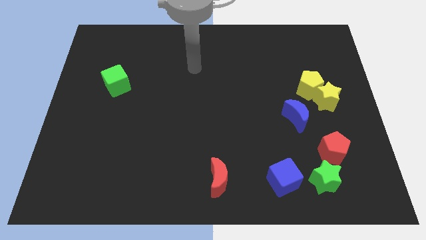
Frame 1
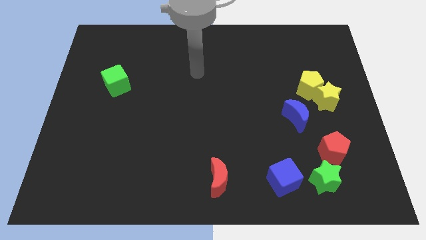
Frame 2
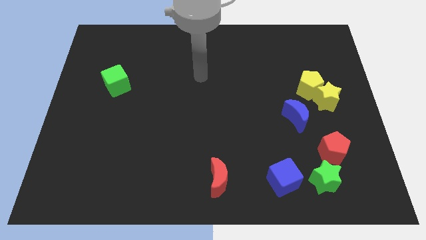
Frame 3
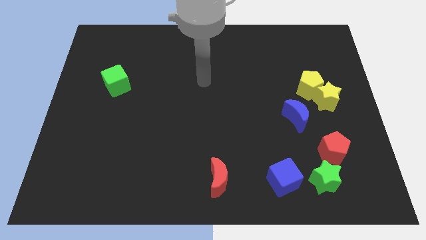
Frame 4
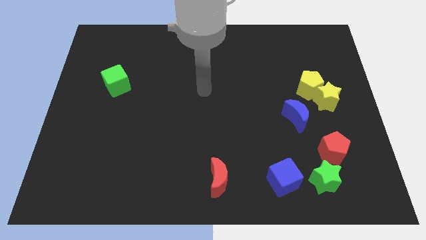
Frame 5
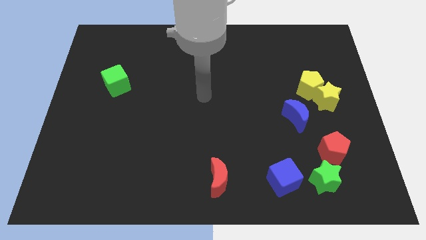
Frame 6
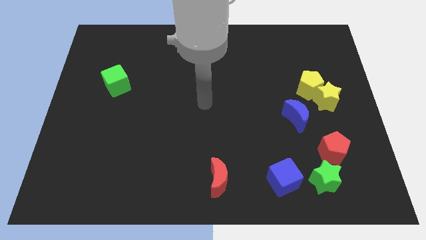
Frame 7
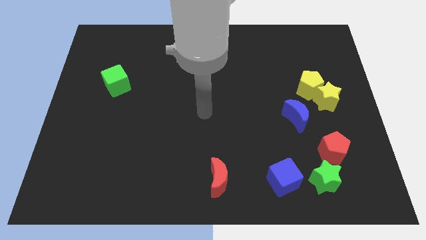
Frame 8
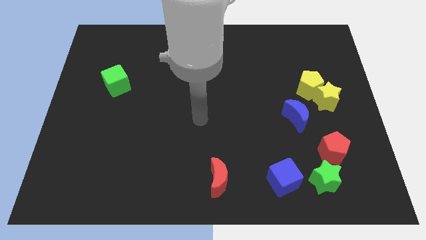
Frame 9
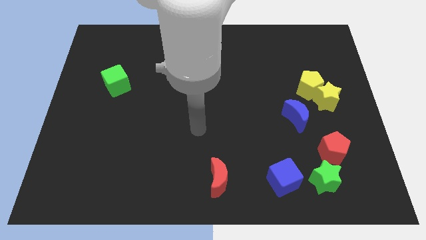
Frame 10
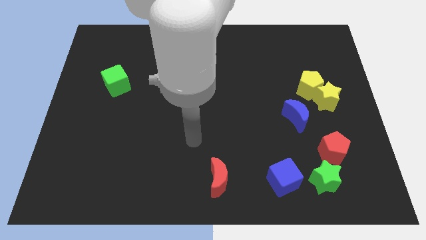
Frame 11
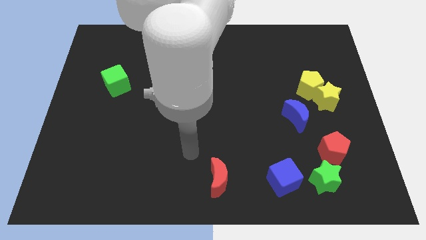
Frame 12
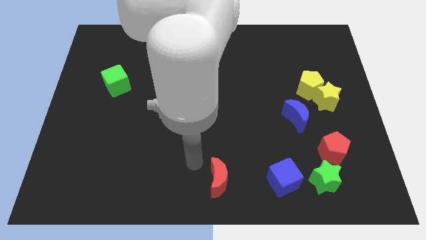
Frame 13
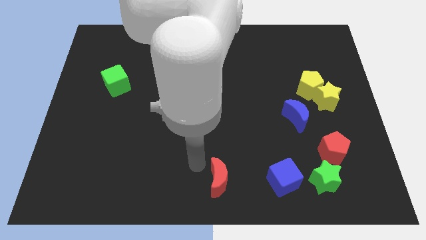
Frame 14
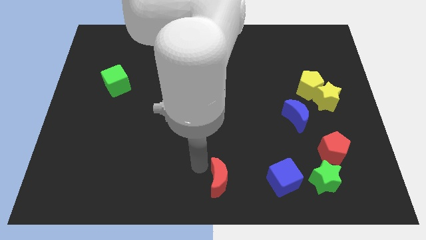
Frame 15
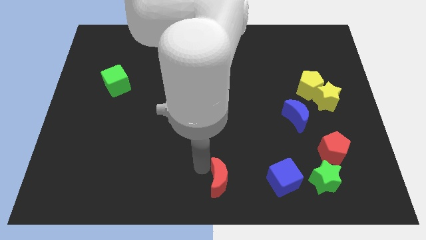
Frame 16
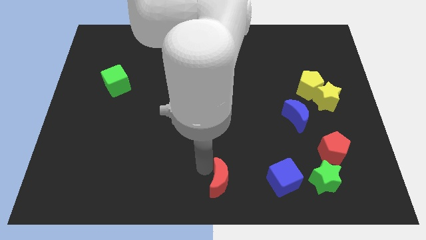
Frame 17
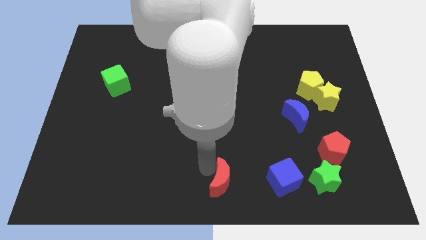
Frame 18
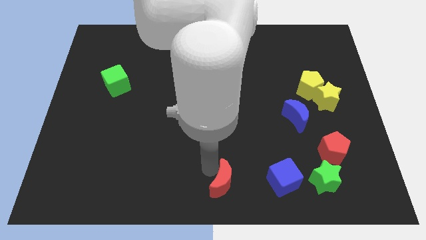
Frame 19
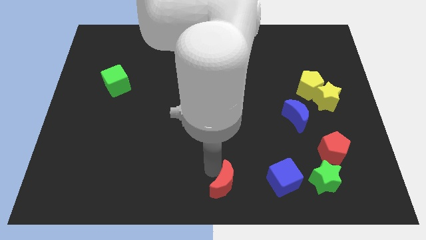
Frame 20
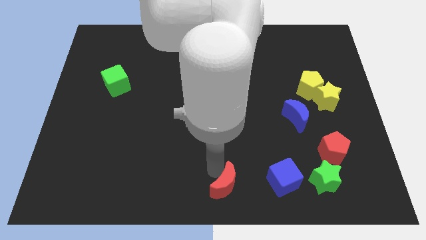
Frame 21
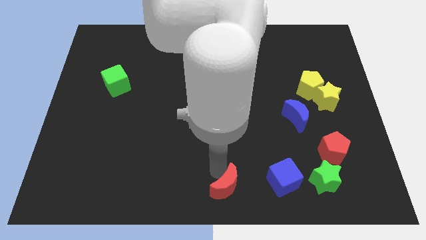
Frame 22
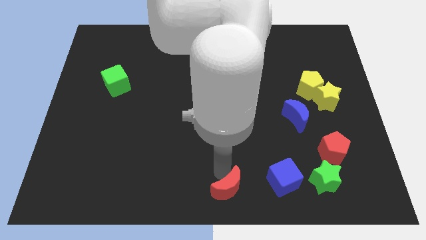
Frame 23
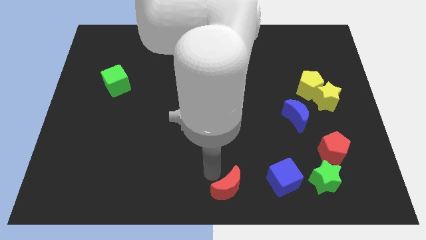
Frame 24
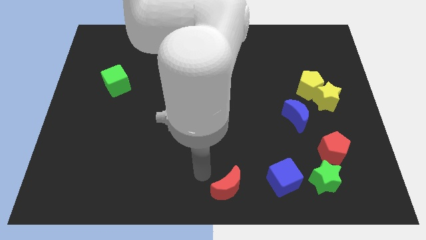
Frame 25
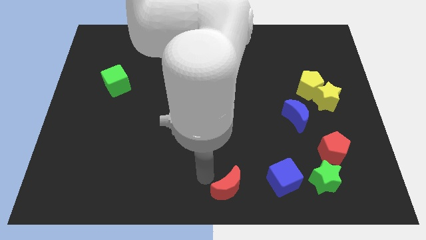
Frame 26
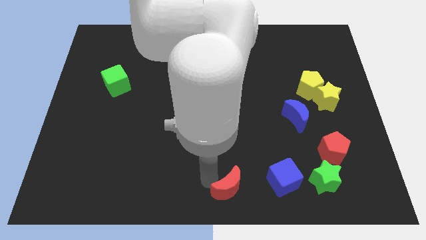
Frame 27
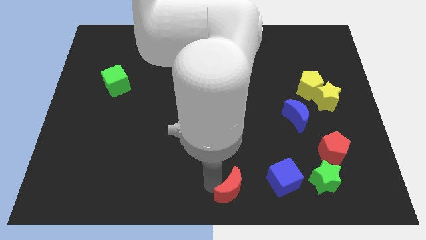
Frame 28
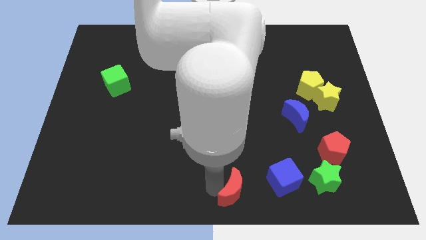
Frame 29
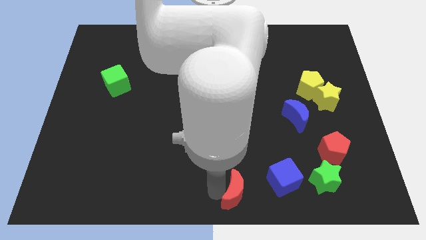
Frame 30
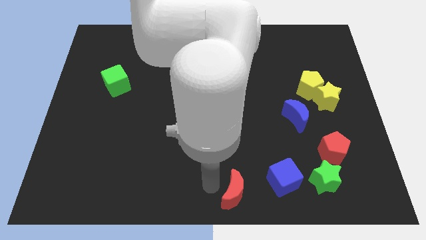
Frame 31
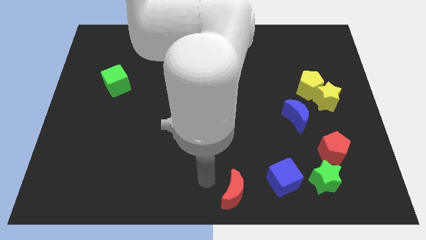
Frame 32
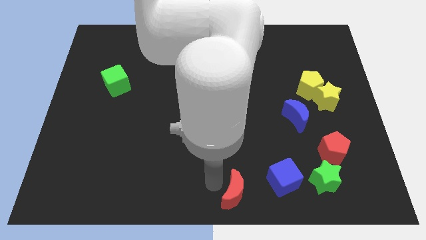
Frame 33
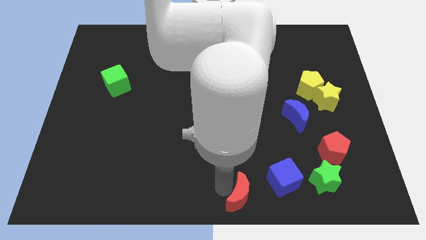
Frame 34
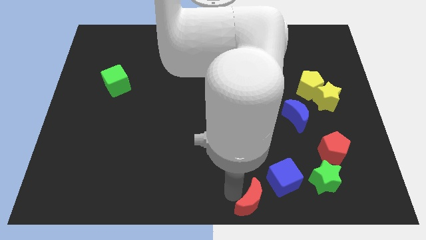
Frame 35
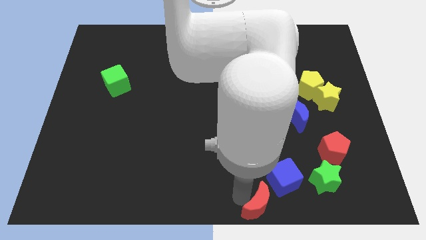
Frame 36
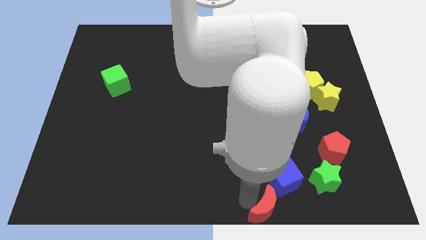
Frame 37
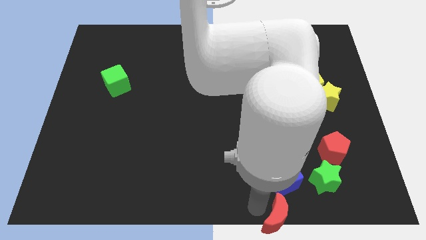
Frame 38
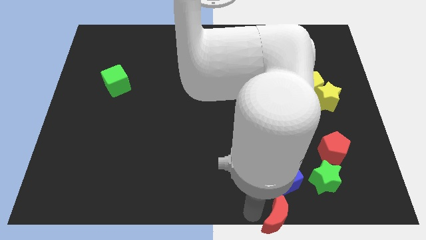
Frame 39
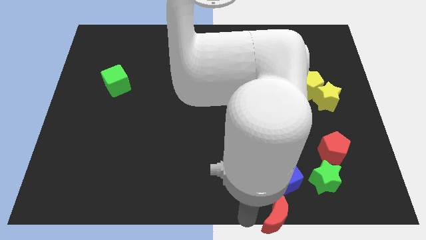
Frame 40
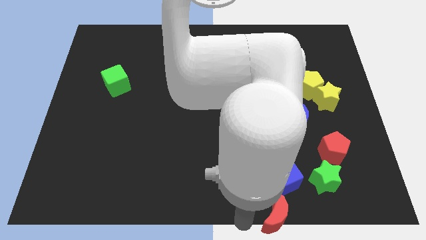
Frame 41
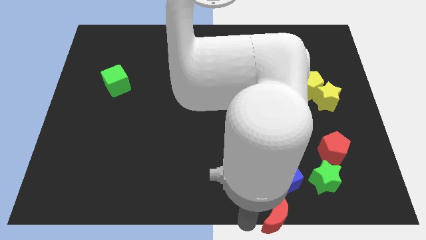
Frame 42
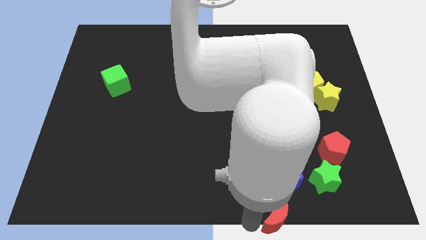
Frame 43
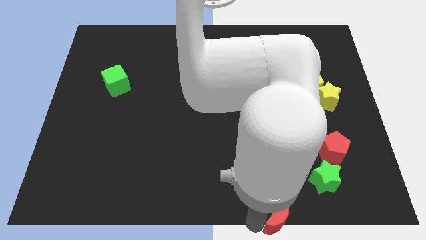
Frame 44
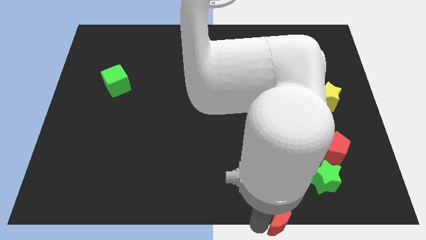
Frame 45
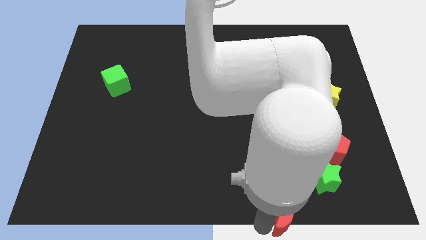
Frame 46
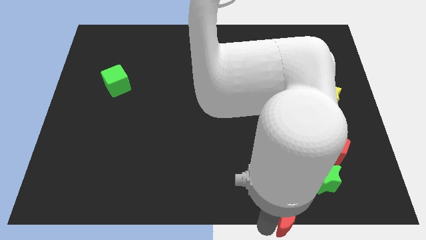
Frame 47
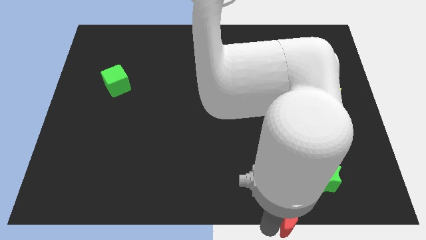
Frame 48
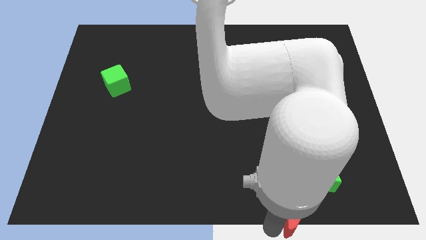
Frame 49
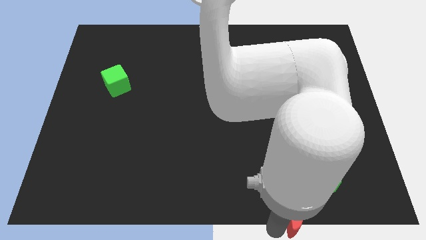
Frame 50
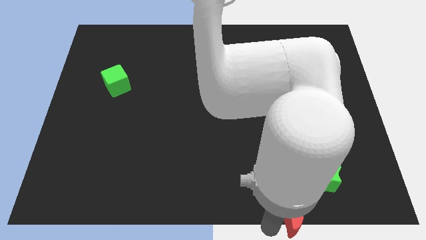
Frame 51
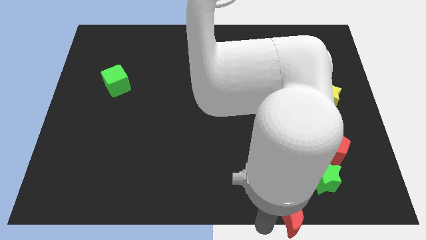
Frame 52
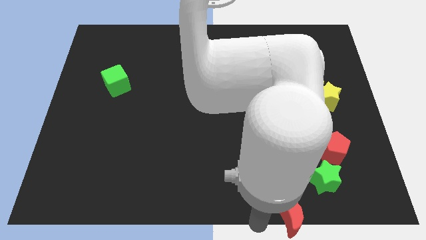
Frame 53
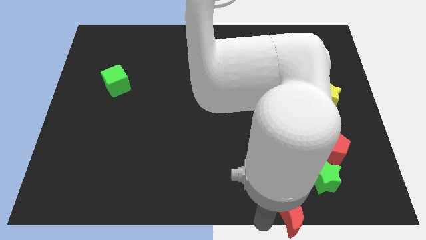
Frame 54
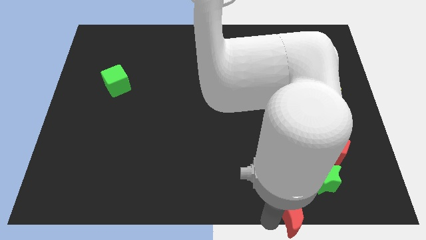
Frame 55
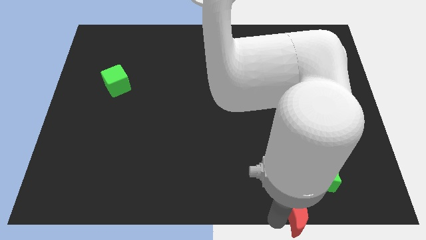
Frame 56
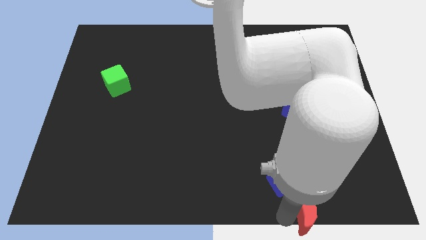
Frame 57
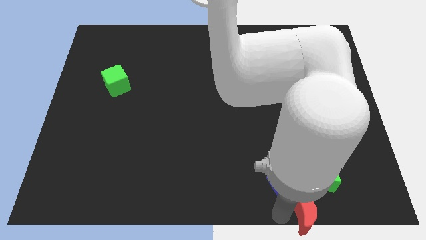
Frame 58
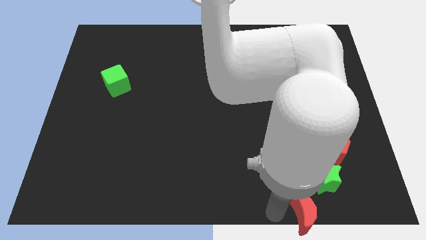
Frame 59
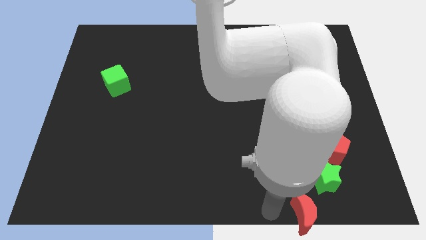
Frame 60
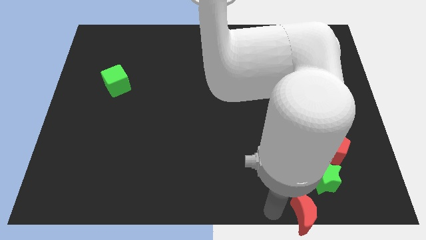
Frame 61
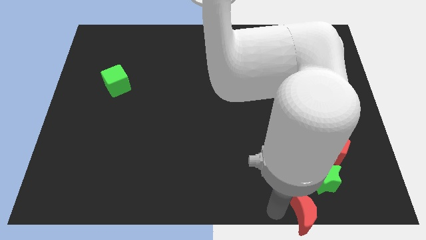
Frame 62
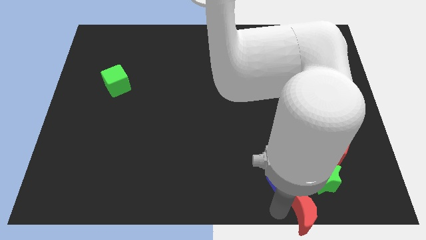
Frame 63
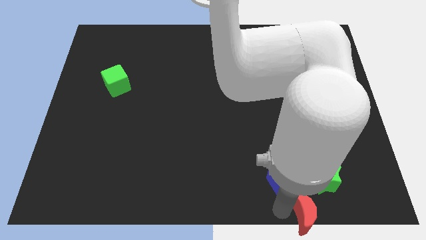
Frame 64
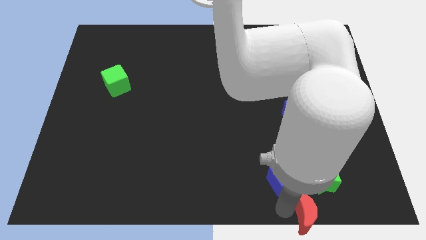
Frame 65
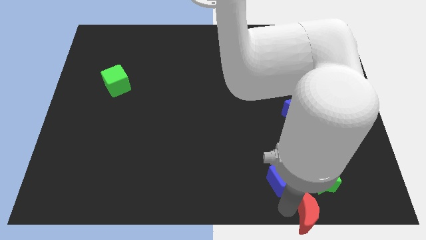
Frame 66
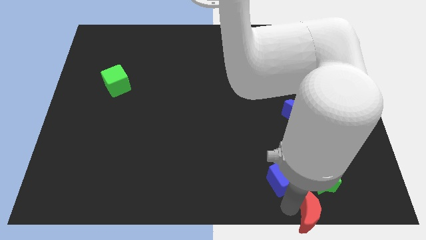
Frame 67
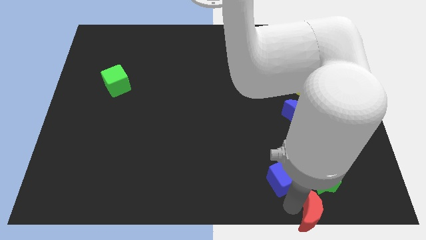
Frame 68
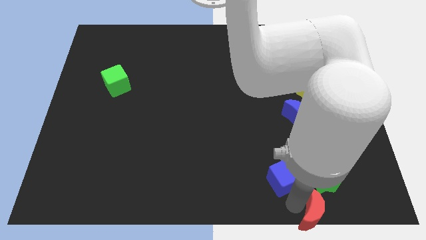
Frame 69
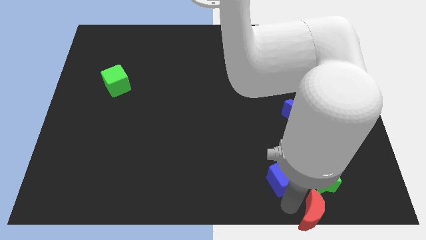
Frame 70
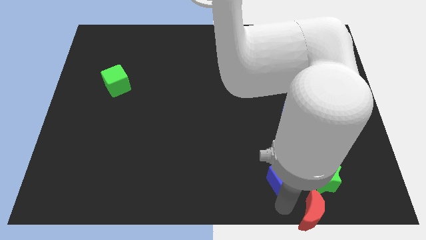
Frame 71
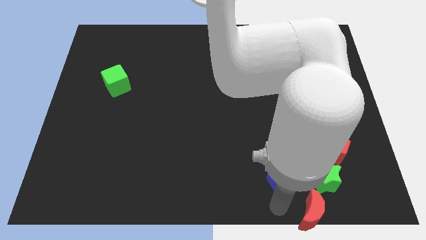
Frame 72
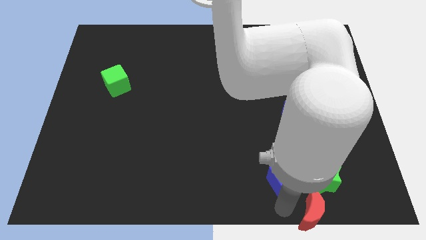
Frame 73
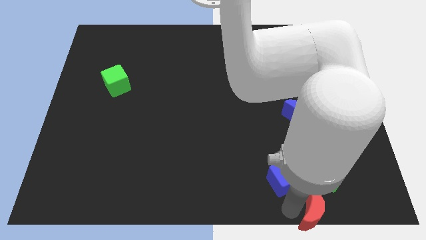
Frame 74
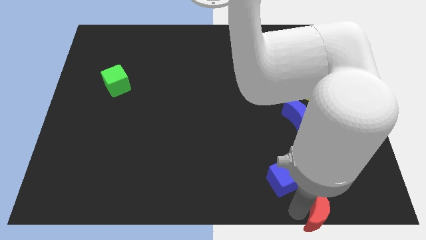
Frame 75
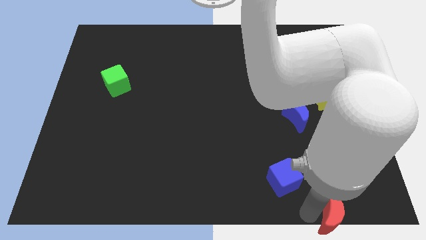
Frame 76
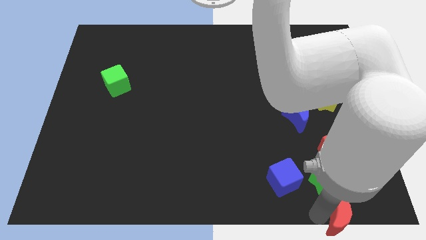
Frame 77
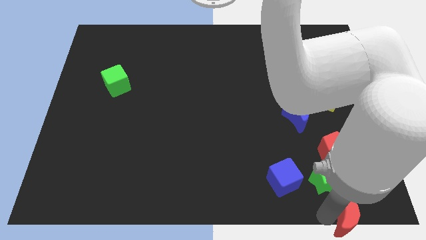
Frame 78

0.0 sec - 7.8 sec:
push the red moon to the lower right corner
